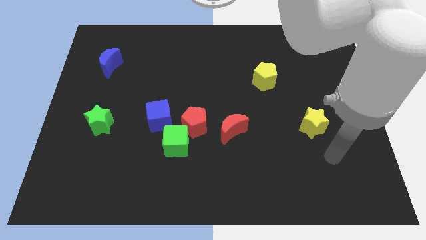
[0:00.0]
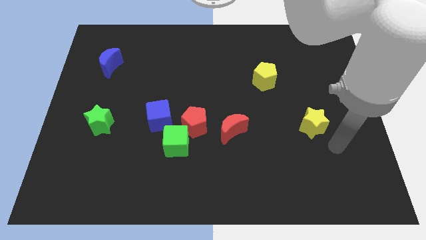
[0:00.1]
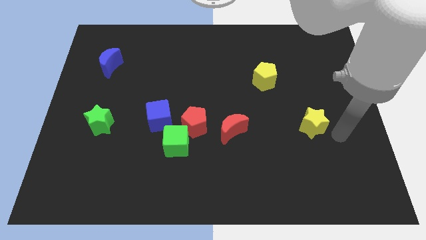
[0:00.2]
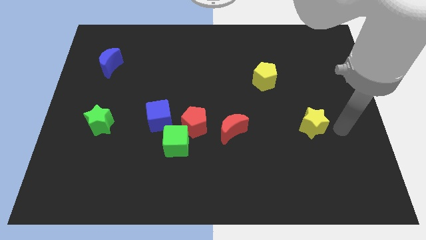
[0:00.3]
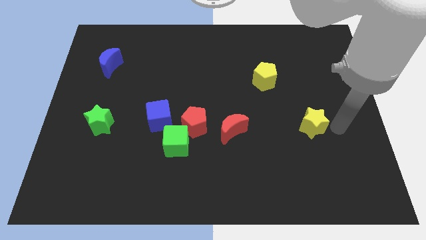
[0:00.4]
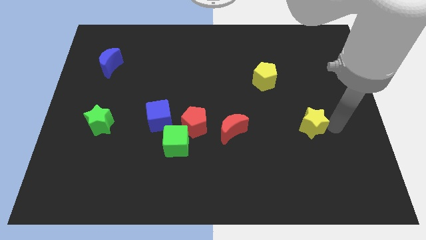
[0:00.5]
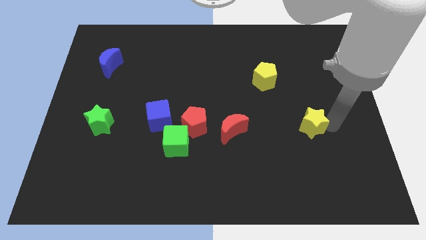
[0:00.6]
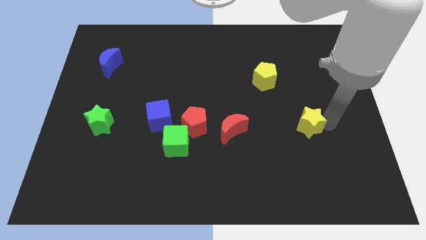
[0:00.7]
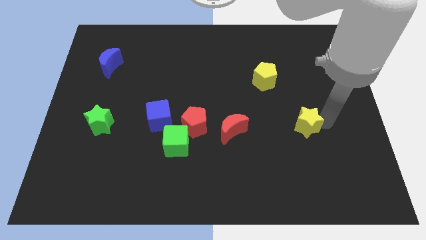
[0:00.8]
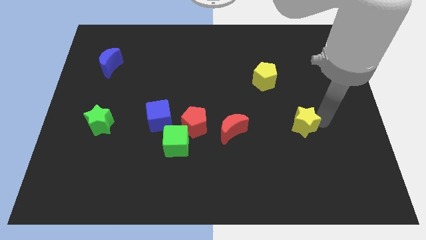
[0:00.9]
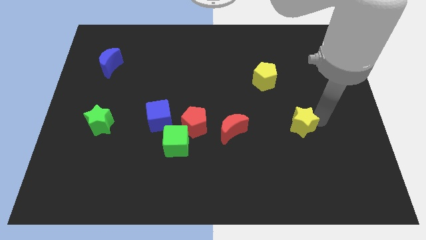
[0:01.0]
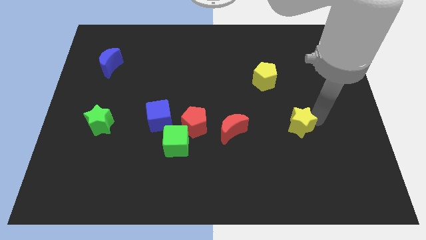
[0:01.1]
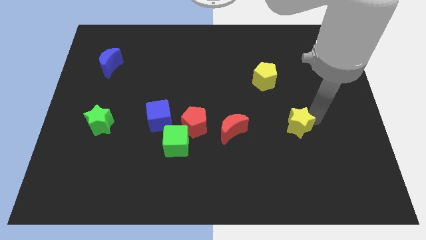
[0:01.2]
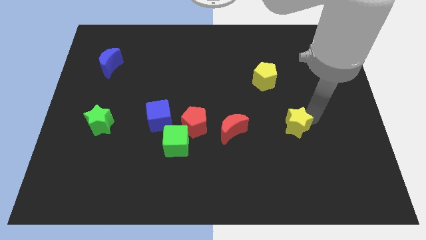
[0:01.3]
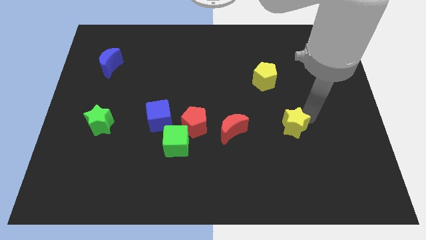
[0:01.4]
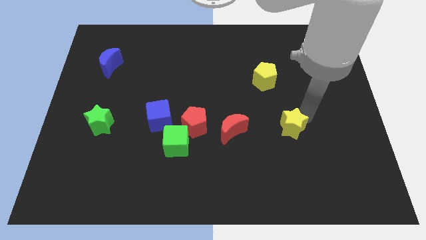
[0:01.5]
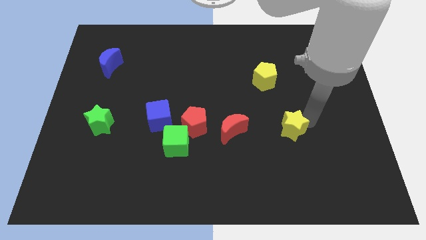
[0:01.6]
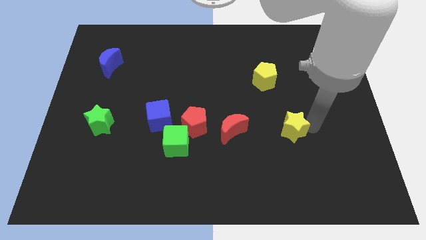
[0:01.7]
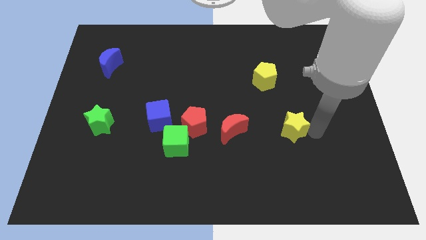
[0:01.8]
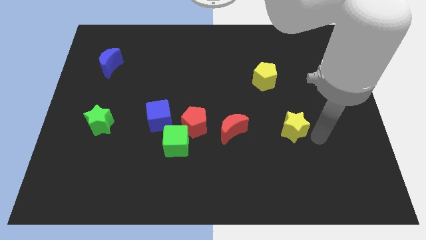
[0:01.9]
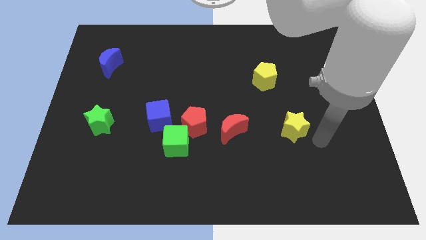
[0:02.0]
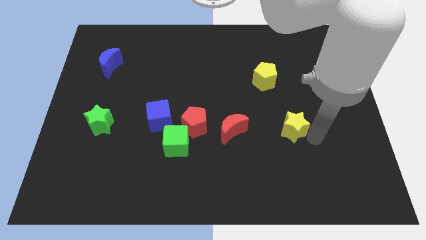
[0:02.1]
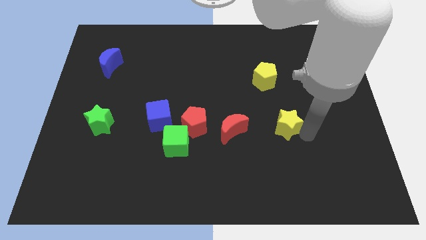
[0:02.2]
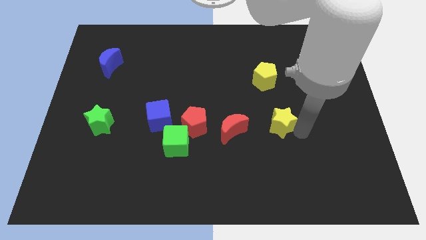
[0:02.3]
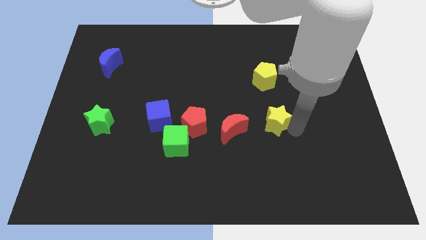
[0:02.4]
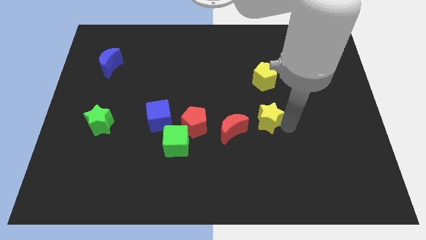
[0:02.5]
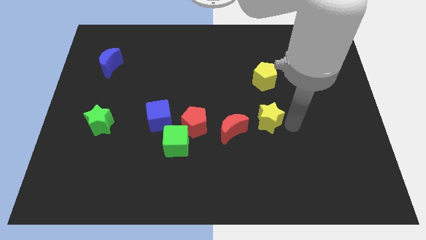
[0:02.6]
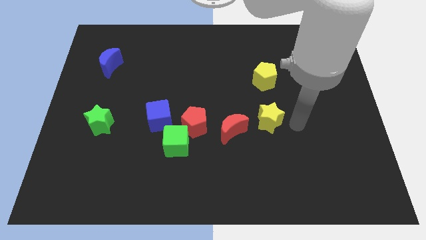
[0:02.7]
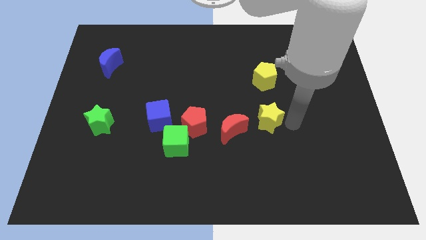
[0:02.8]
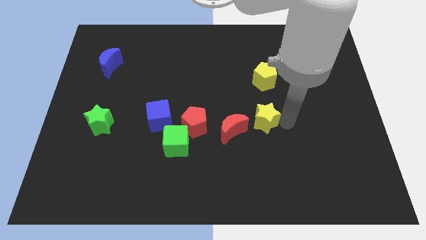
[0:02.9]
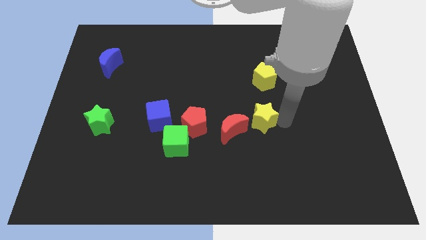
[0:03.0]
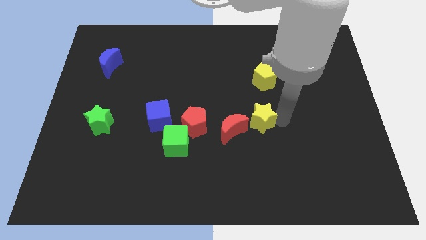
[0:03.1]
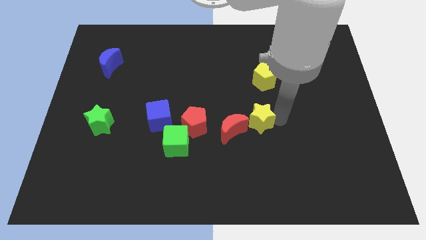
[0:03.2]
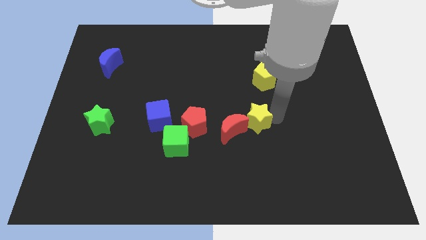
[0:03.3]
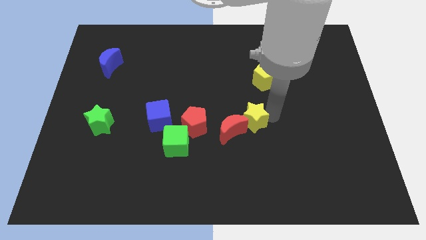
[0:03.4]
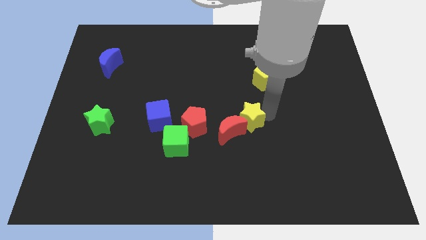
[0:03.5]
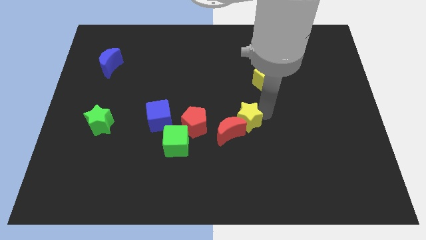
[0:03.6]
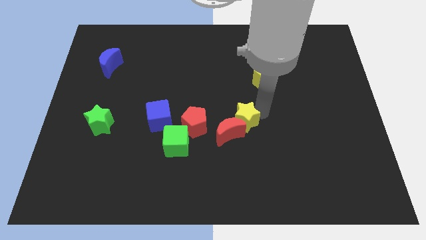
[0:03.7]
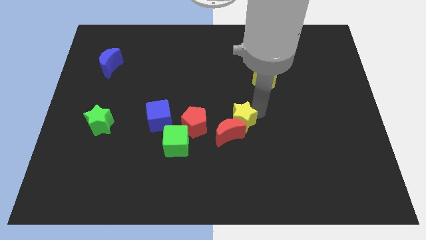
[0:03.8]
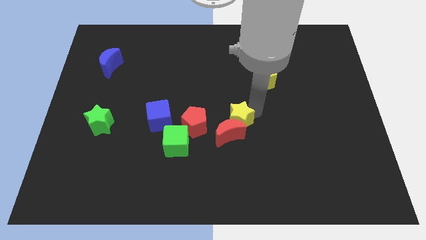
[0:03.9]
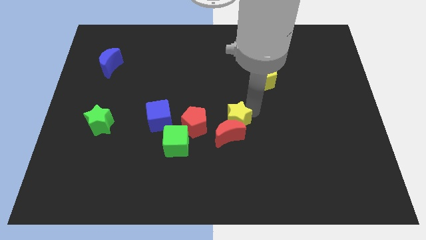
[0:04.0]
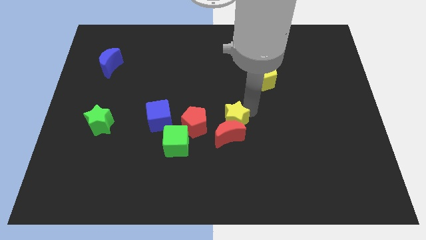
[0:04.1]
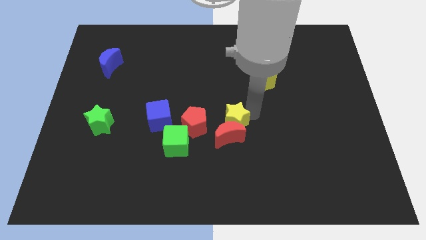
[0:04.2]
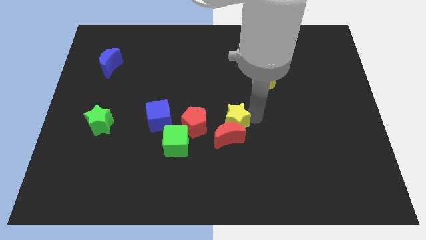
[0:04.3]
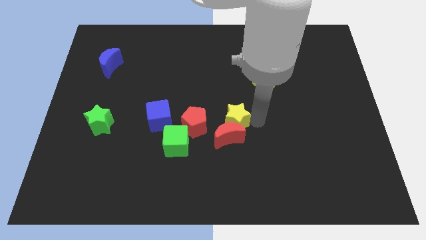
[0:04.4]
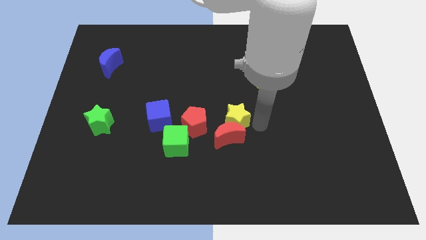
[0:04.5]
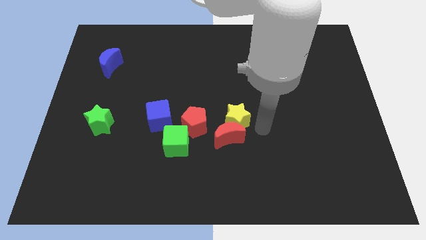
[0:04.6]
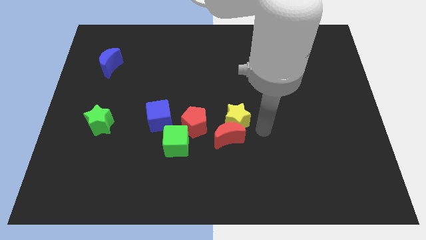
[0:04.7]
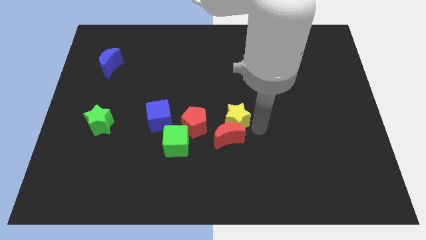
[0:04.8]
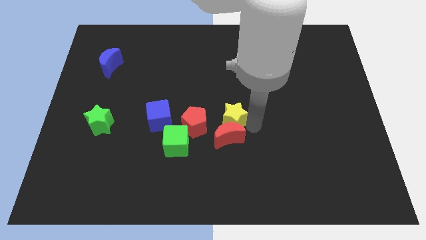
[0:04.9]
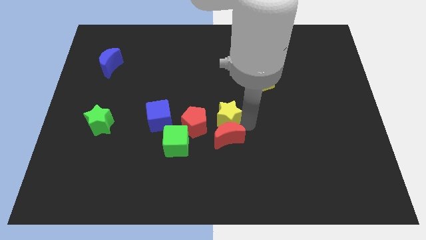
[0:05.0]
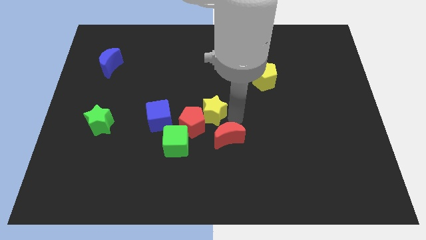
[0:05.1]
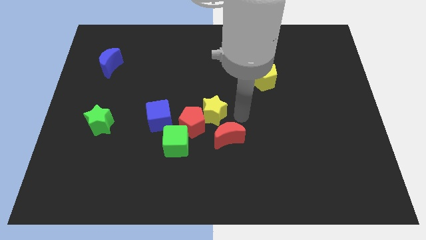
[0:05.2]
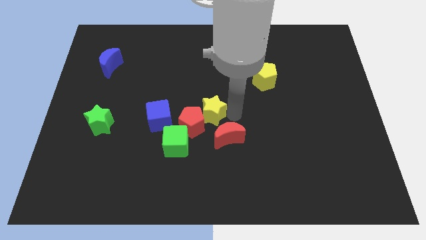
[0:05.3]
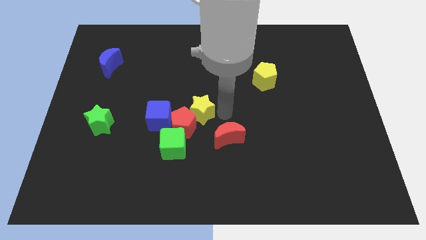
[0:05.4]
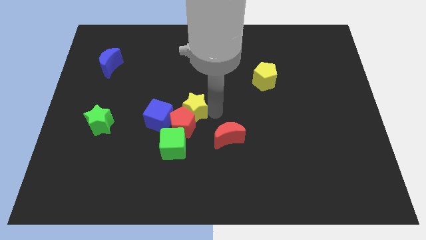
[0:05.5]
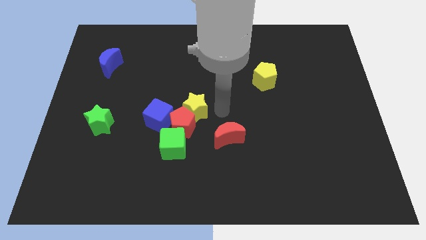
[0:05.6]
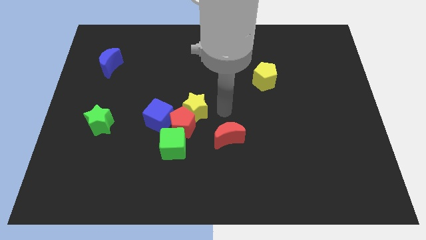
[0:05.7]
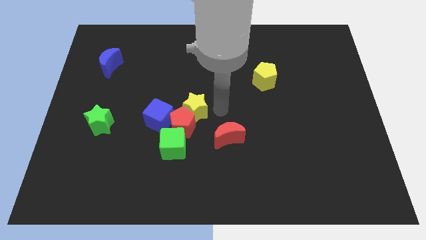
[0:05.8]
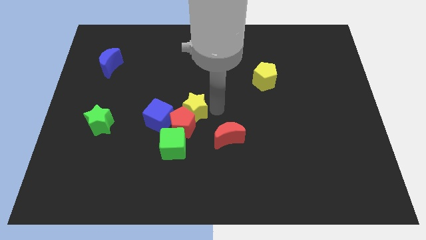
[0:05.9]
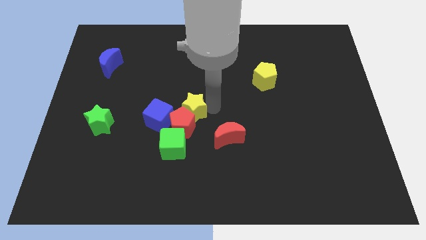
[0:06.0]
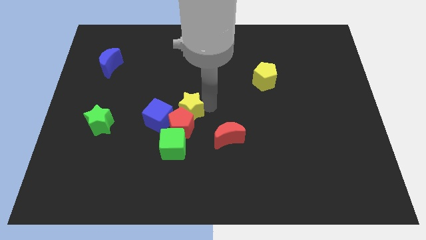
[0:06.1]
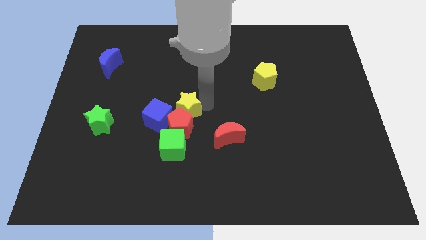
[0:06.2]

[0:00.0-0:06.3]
move the yellow star to the top left side of the red pentagon

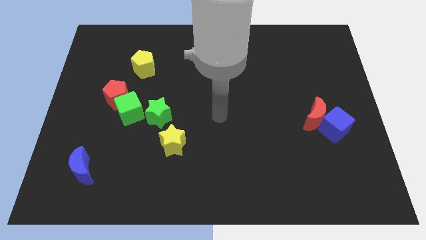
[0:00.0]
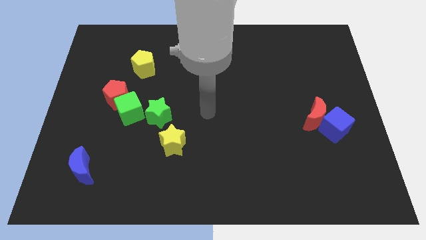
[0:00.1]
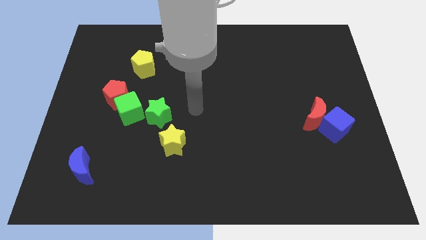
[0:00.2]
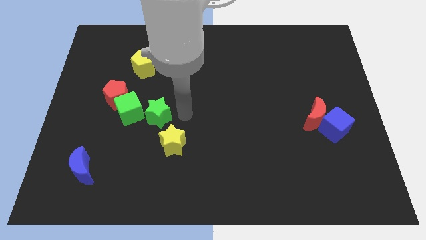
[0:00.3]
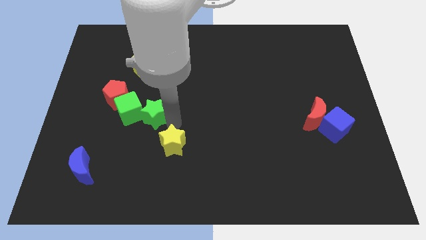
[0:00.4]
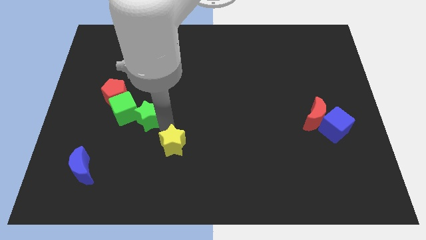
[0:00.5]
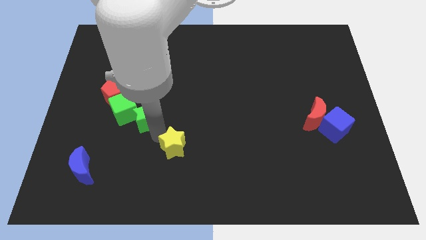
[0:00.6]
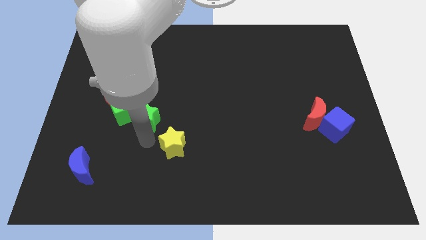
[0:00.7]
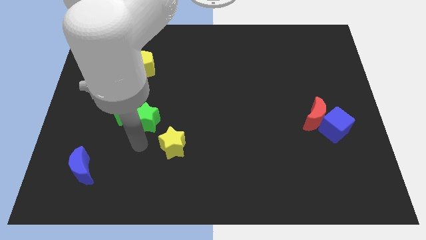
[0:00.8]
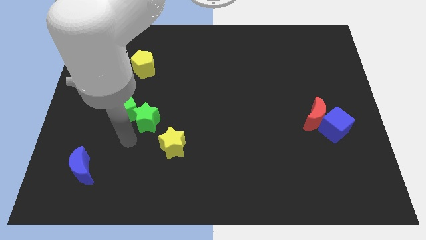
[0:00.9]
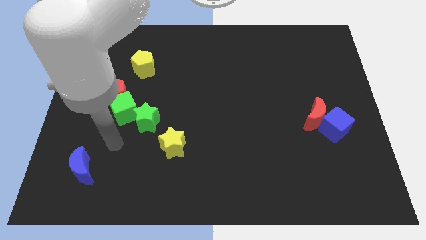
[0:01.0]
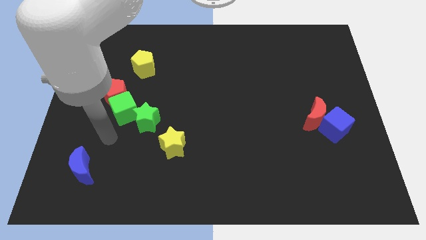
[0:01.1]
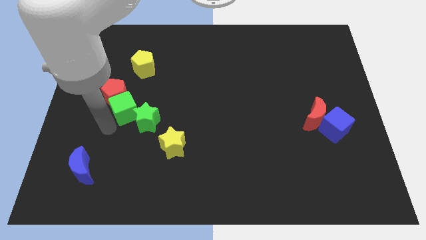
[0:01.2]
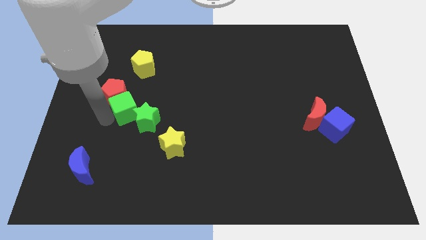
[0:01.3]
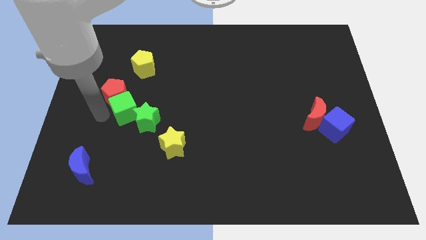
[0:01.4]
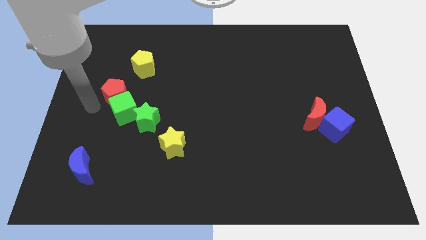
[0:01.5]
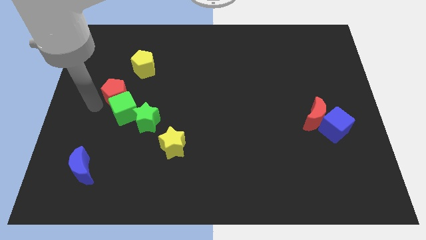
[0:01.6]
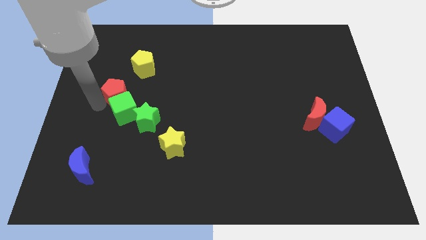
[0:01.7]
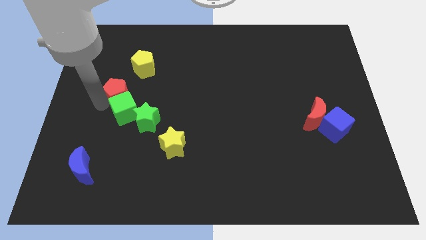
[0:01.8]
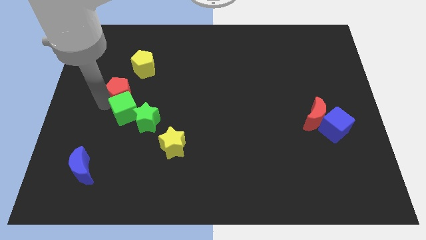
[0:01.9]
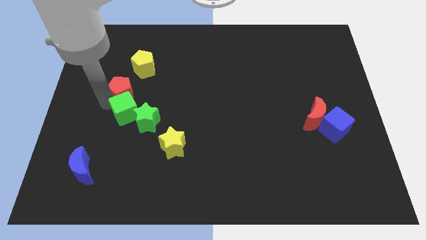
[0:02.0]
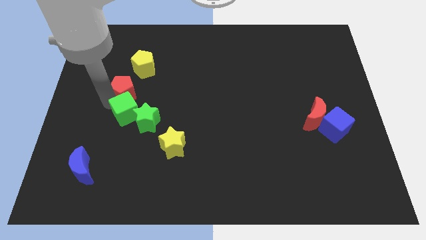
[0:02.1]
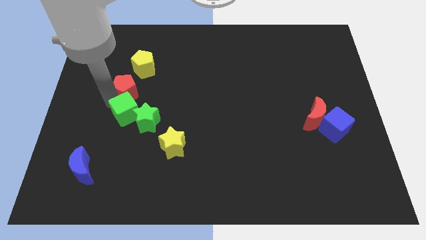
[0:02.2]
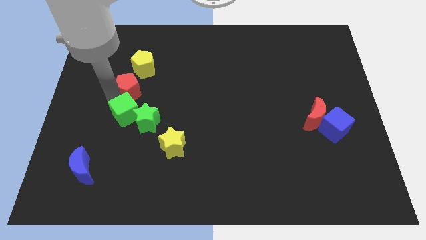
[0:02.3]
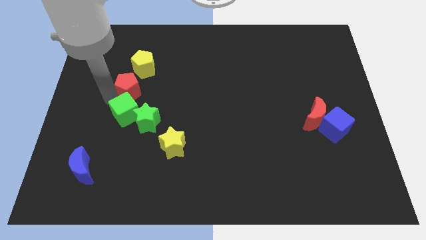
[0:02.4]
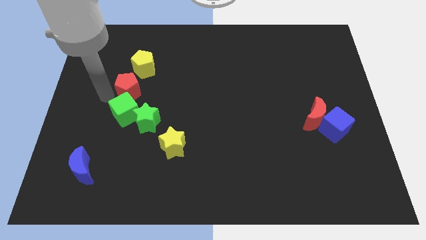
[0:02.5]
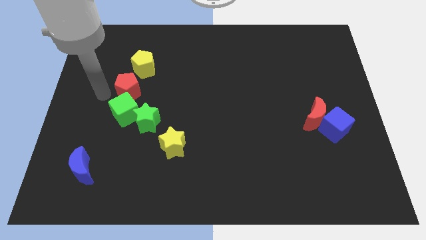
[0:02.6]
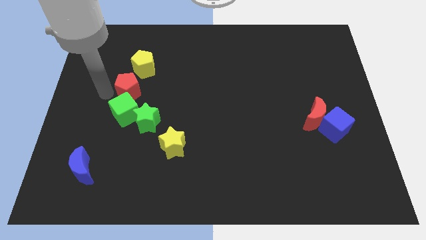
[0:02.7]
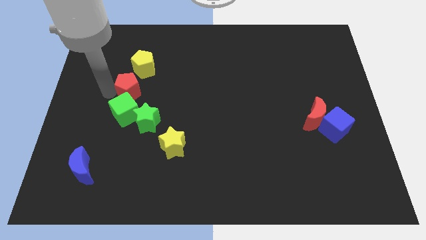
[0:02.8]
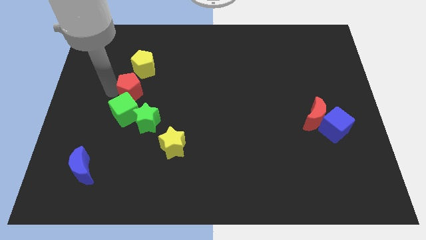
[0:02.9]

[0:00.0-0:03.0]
move the red pentagon to the top of the green star
